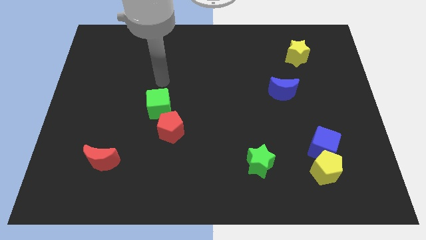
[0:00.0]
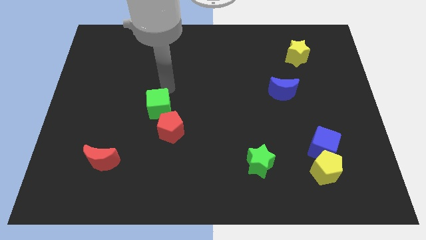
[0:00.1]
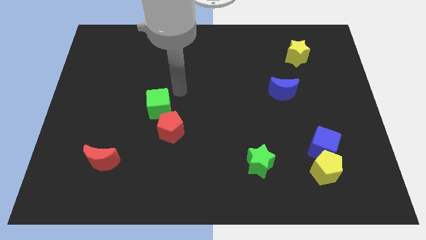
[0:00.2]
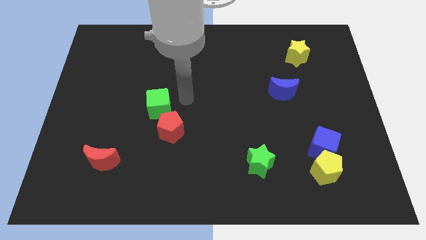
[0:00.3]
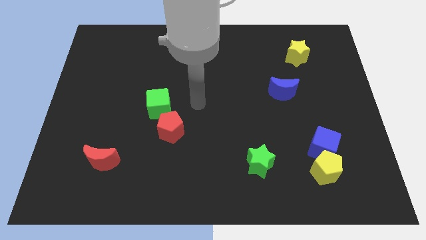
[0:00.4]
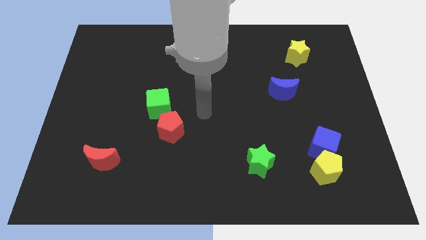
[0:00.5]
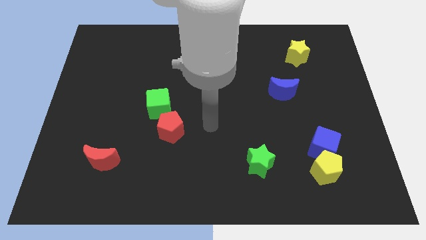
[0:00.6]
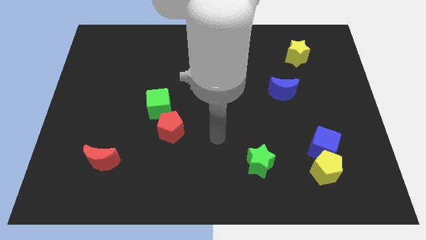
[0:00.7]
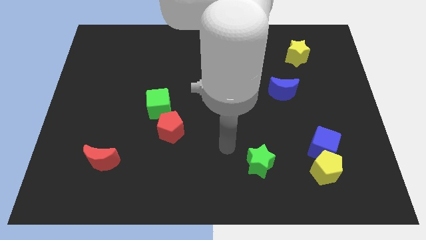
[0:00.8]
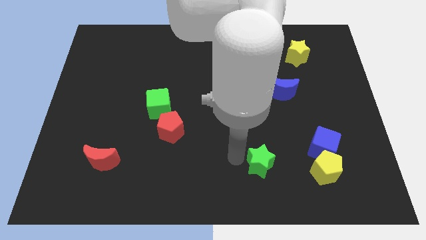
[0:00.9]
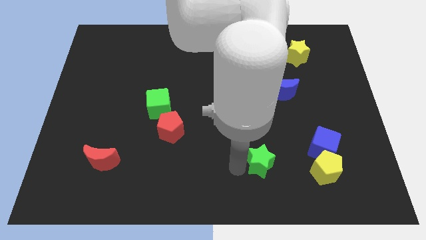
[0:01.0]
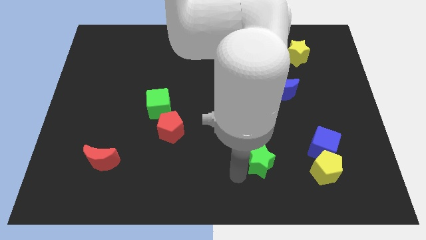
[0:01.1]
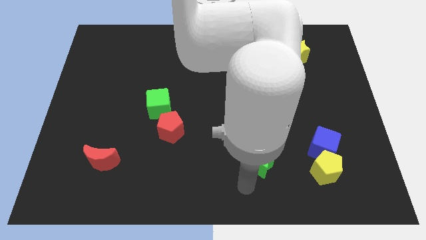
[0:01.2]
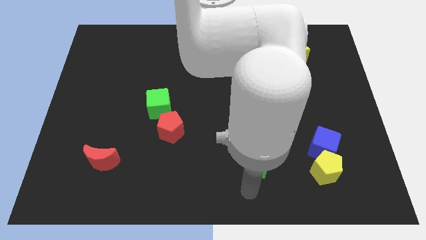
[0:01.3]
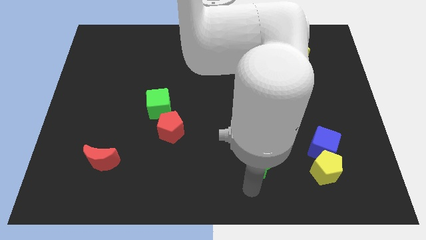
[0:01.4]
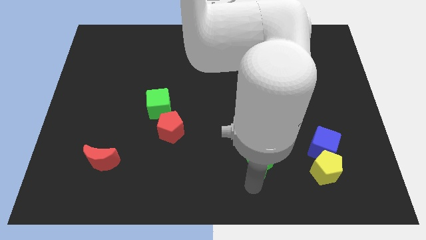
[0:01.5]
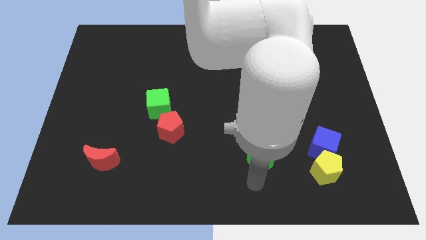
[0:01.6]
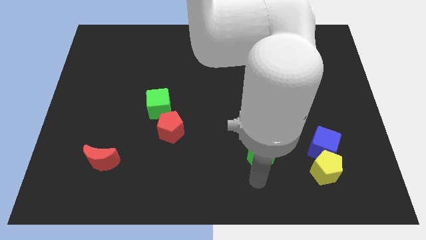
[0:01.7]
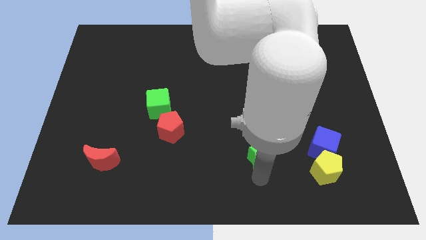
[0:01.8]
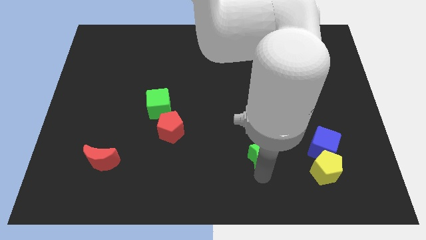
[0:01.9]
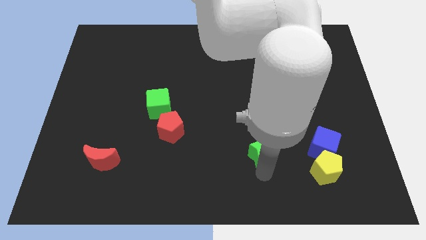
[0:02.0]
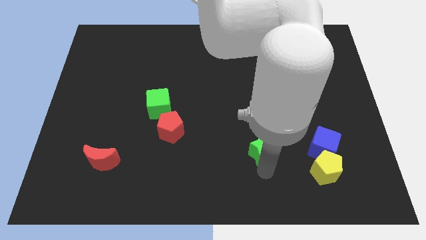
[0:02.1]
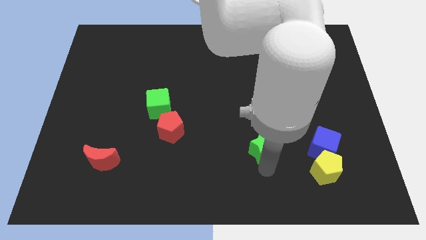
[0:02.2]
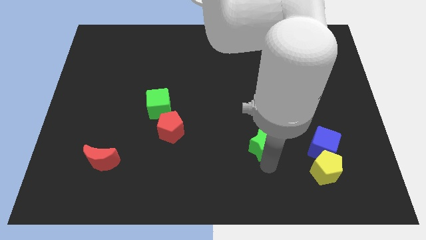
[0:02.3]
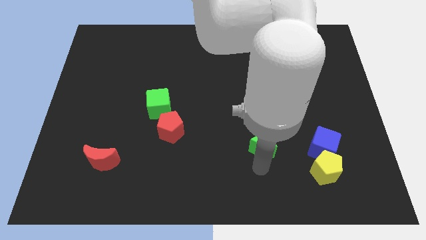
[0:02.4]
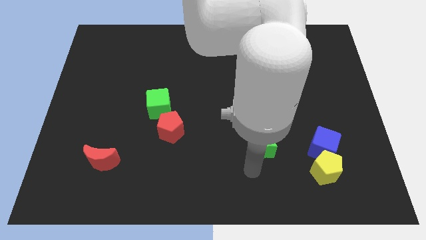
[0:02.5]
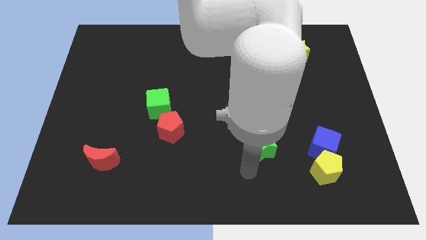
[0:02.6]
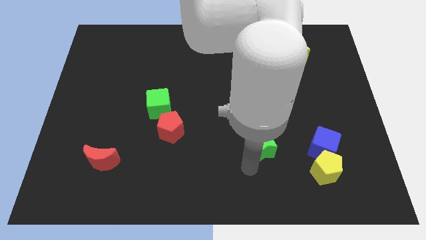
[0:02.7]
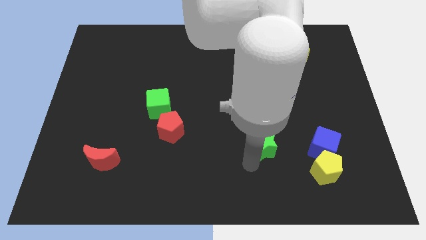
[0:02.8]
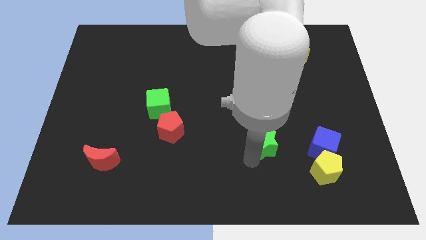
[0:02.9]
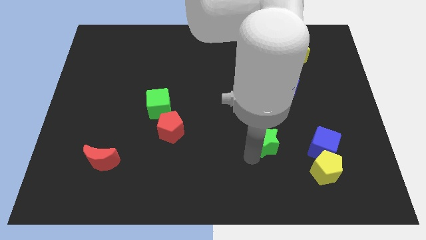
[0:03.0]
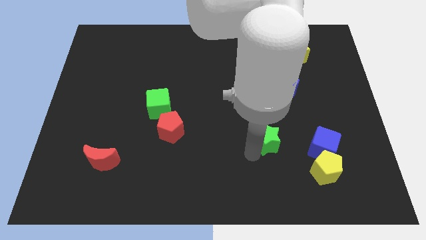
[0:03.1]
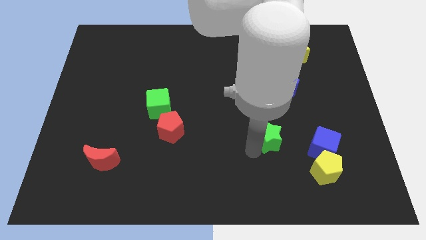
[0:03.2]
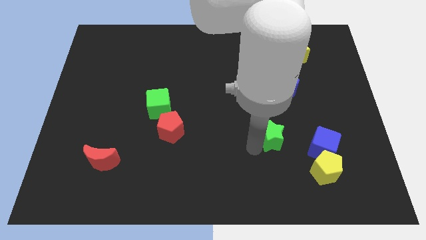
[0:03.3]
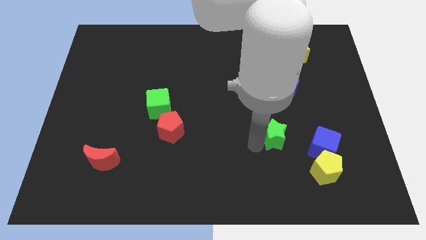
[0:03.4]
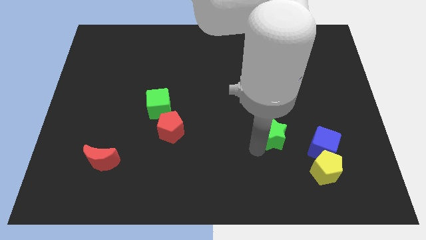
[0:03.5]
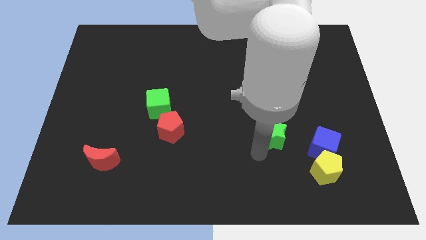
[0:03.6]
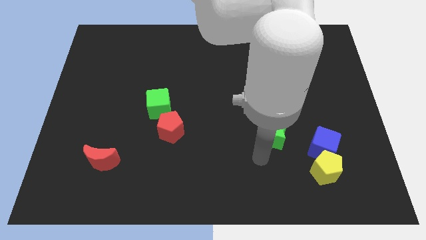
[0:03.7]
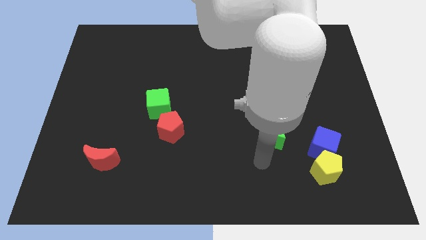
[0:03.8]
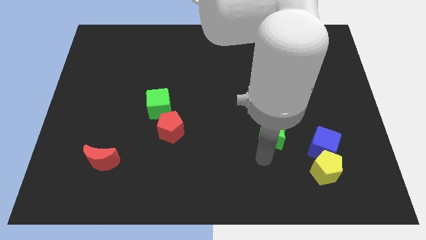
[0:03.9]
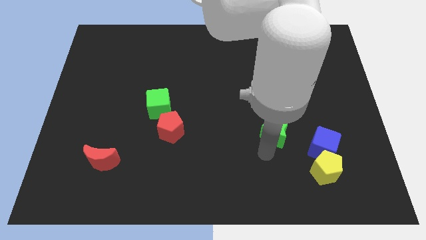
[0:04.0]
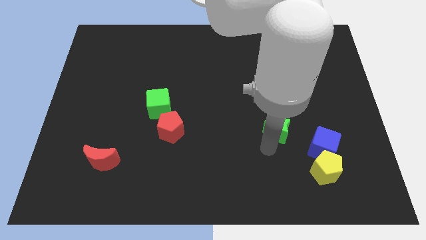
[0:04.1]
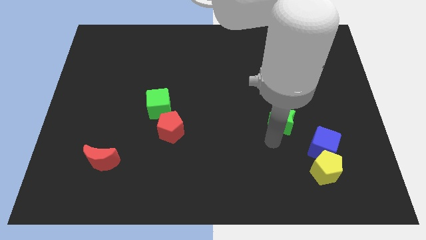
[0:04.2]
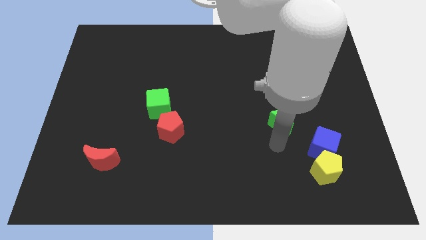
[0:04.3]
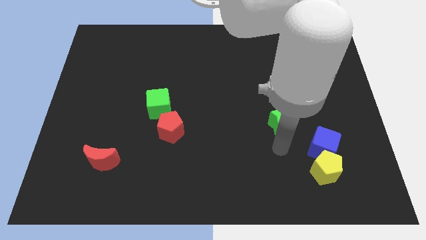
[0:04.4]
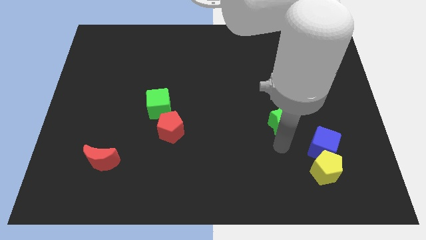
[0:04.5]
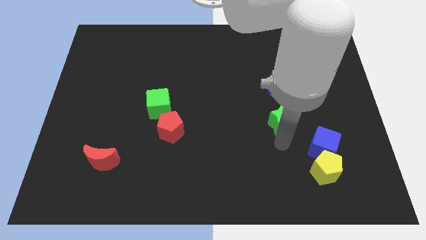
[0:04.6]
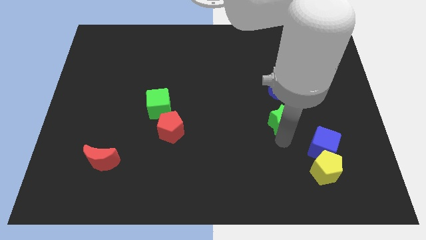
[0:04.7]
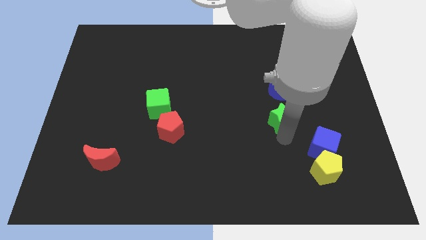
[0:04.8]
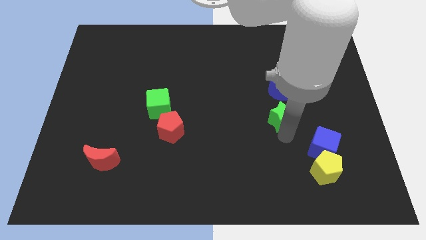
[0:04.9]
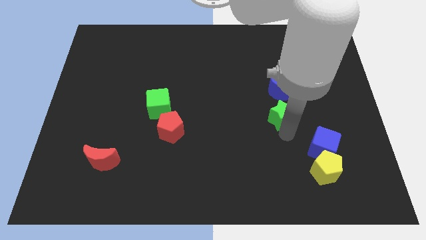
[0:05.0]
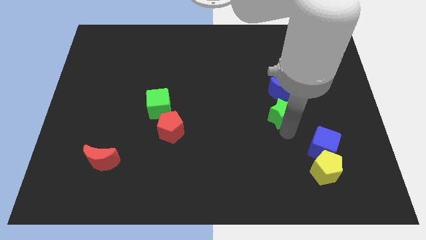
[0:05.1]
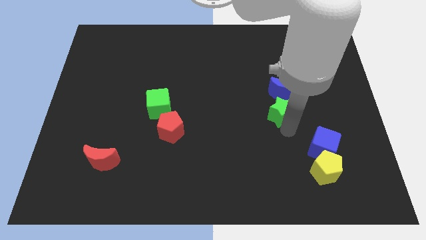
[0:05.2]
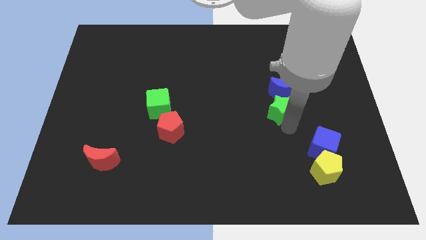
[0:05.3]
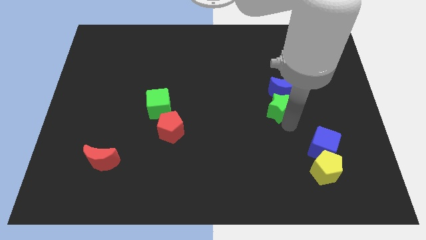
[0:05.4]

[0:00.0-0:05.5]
move the green star next to the blue moon

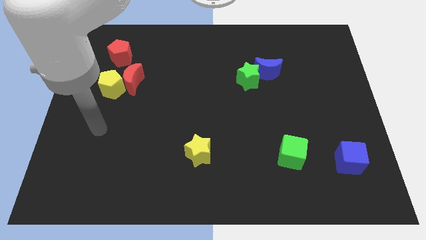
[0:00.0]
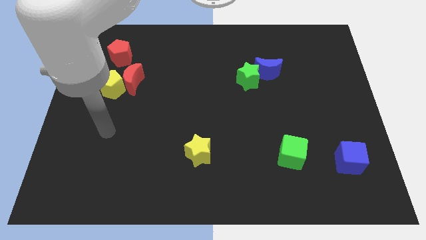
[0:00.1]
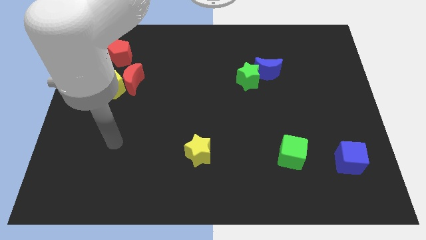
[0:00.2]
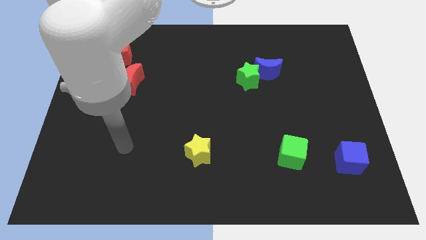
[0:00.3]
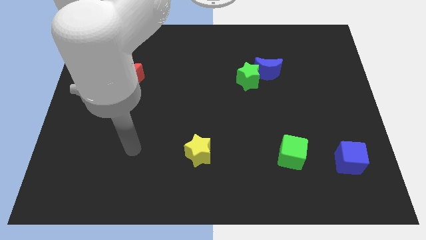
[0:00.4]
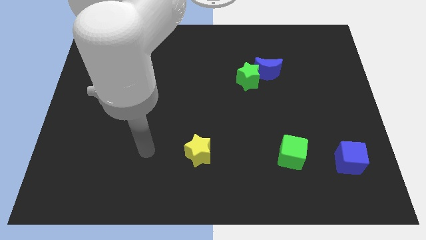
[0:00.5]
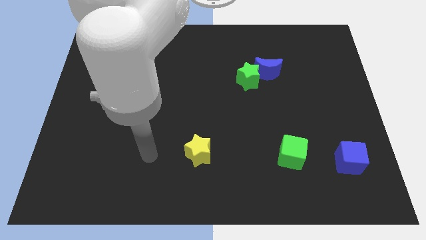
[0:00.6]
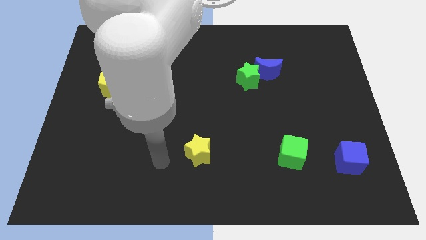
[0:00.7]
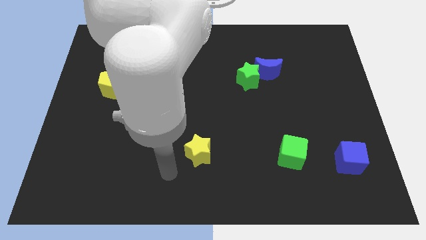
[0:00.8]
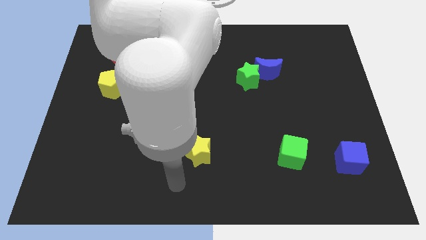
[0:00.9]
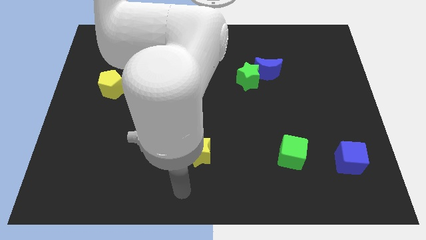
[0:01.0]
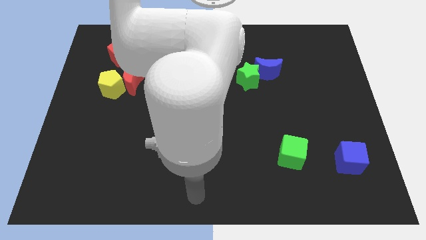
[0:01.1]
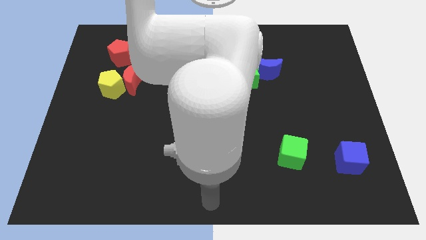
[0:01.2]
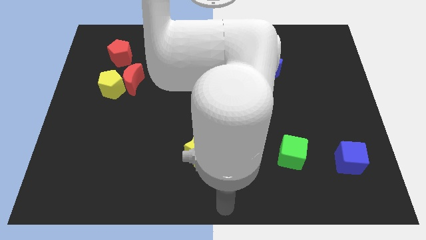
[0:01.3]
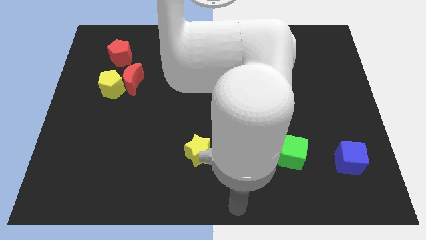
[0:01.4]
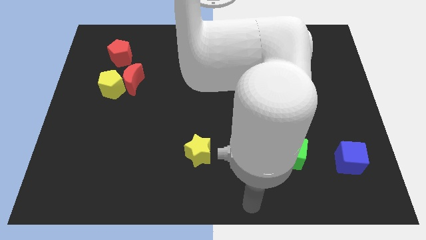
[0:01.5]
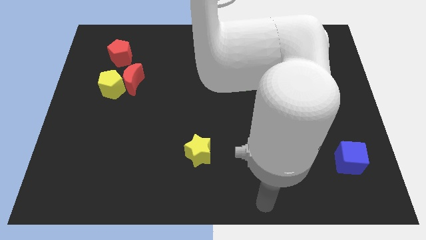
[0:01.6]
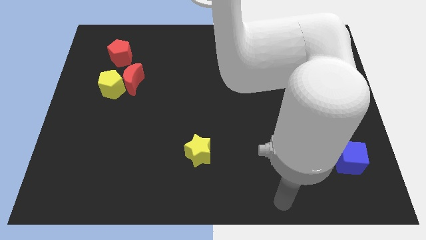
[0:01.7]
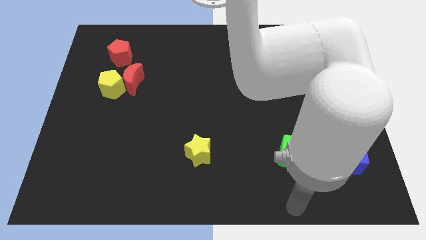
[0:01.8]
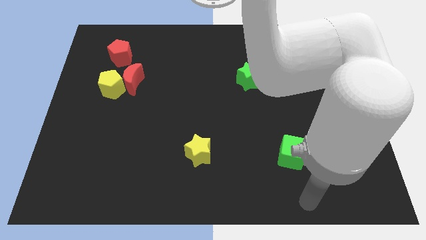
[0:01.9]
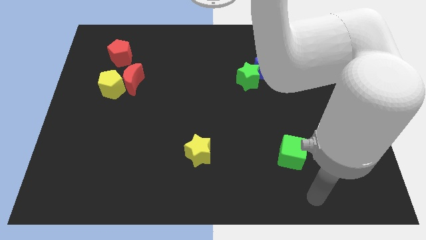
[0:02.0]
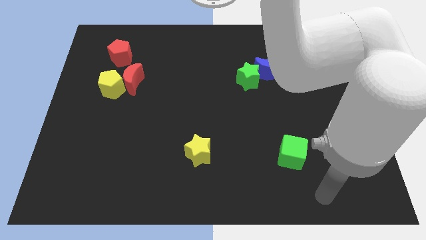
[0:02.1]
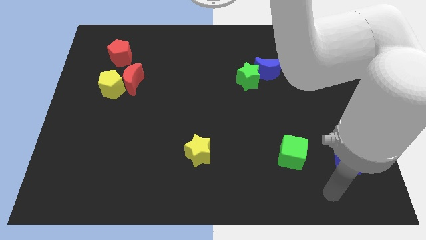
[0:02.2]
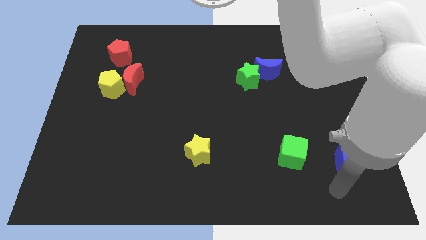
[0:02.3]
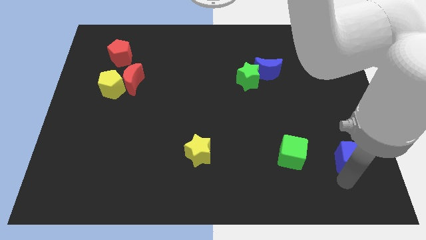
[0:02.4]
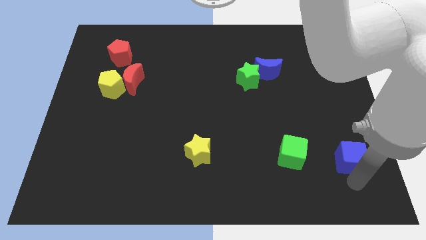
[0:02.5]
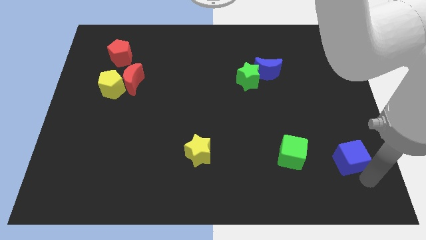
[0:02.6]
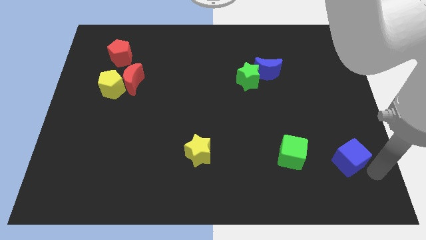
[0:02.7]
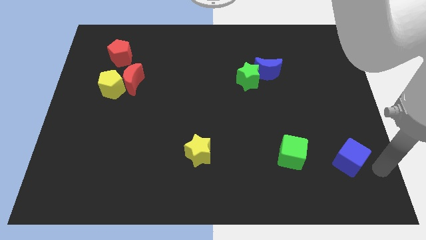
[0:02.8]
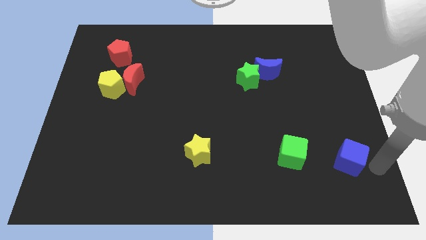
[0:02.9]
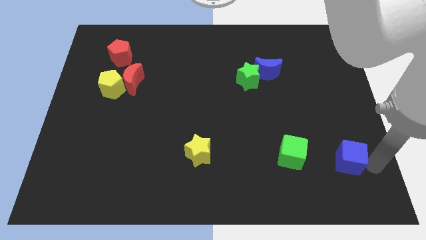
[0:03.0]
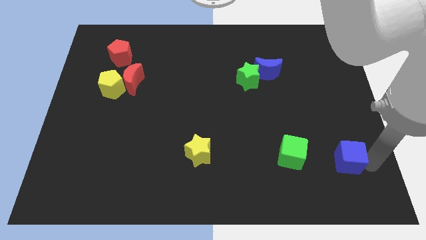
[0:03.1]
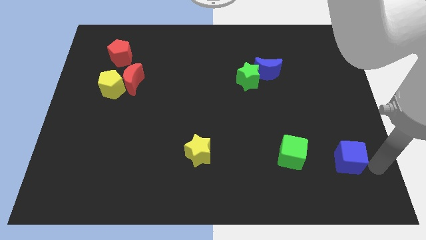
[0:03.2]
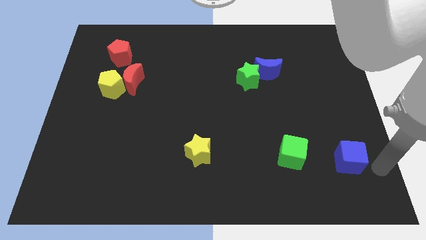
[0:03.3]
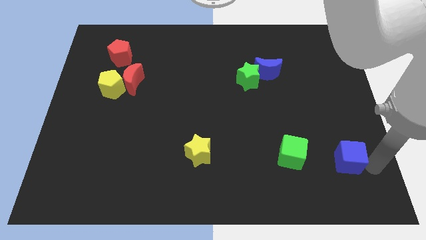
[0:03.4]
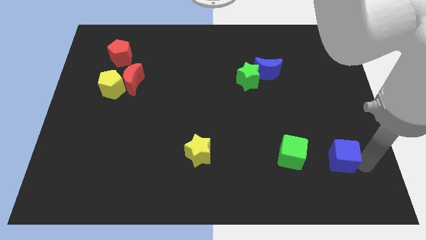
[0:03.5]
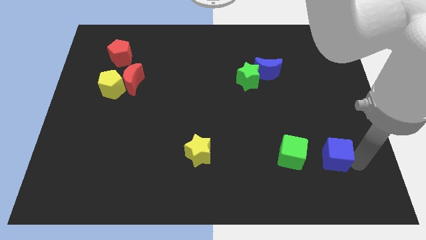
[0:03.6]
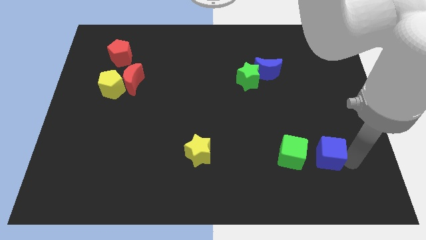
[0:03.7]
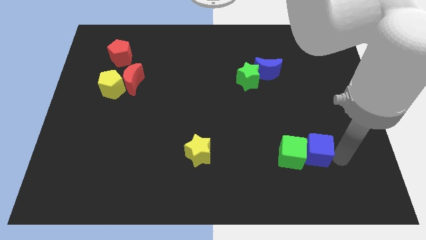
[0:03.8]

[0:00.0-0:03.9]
slide the blue cube next to the green cube
